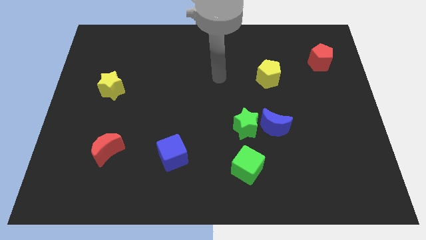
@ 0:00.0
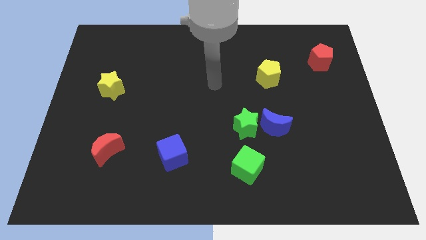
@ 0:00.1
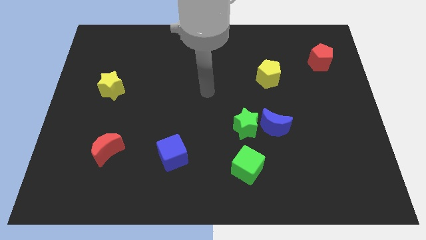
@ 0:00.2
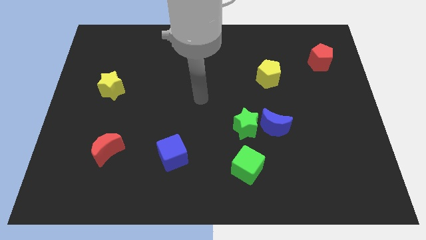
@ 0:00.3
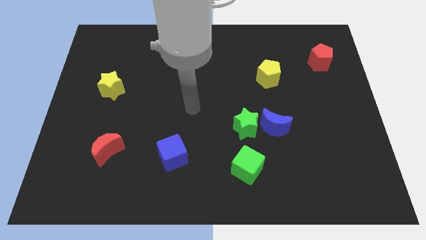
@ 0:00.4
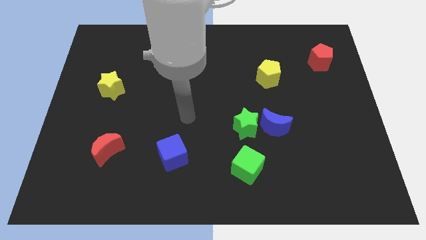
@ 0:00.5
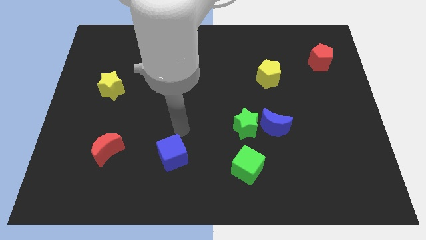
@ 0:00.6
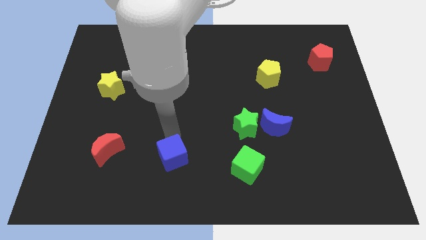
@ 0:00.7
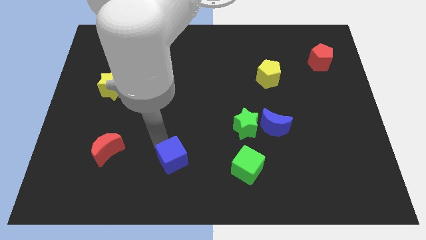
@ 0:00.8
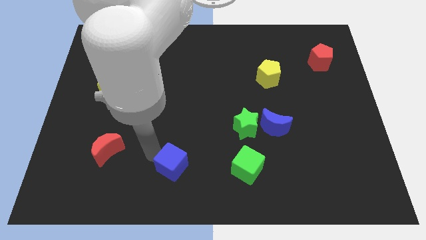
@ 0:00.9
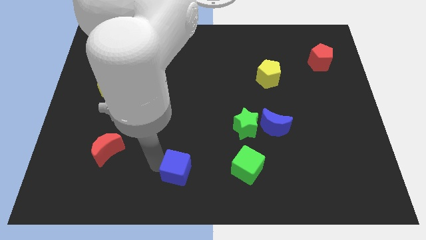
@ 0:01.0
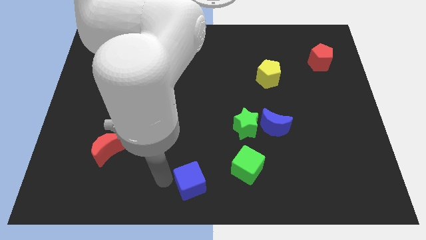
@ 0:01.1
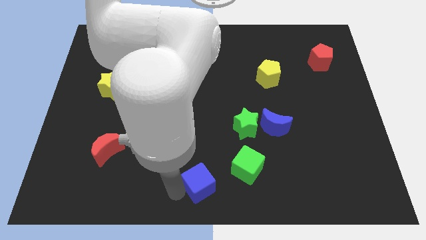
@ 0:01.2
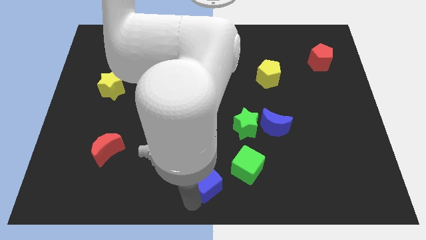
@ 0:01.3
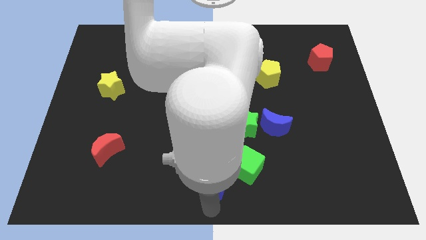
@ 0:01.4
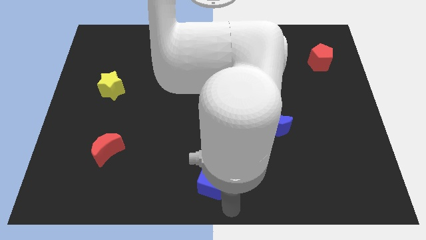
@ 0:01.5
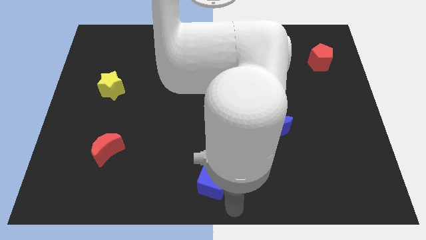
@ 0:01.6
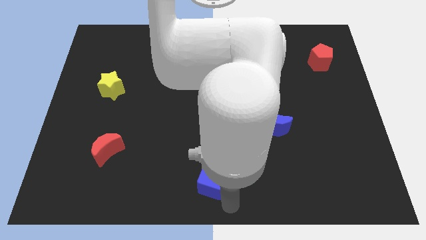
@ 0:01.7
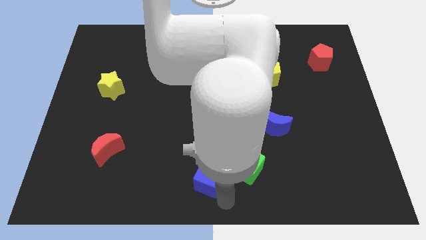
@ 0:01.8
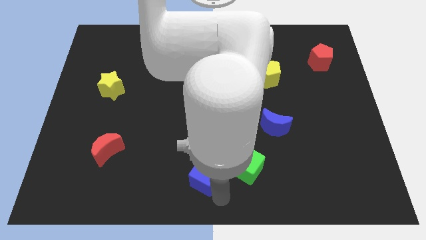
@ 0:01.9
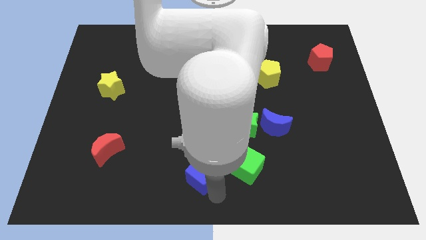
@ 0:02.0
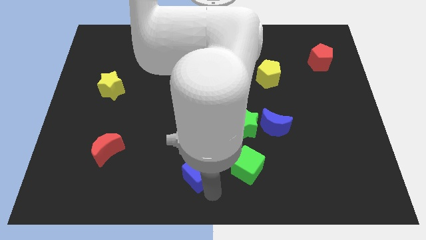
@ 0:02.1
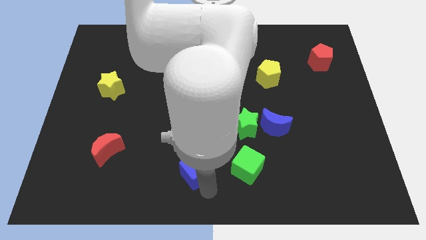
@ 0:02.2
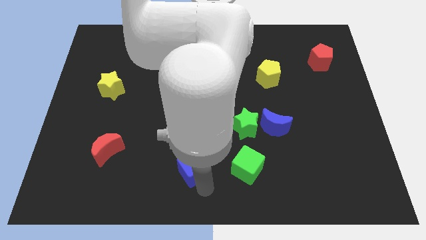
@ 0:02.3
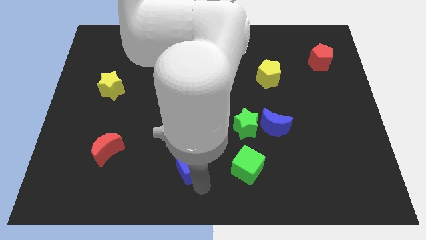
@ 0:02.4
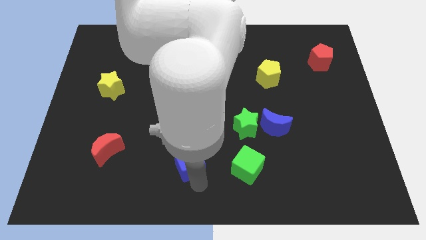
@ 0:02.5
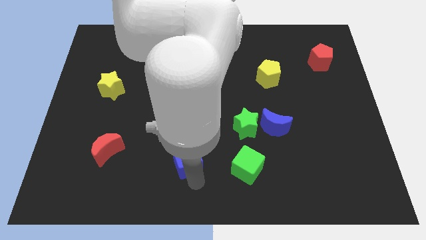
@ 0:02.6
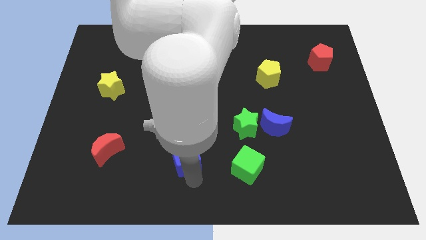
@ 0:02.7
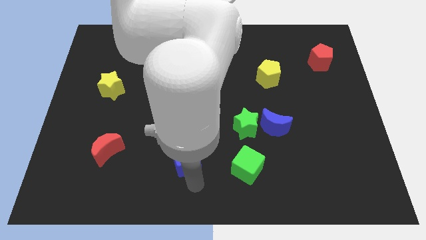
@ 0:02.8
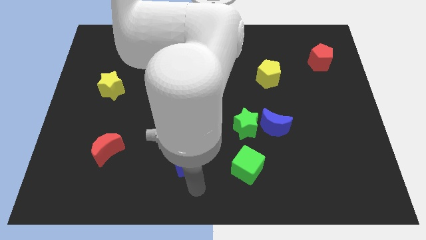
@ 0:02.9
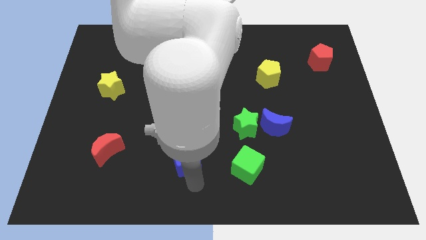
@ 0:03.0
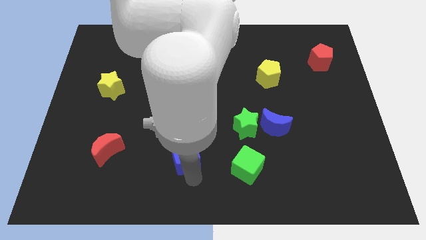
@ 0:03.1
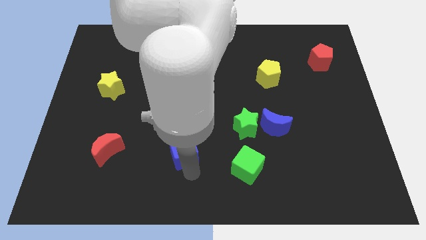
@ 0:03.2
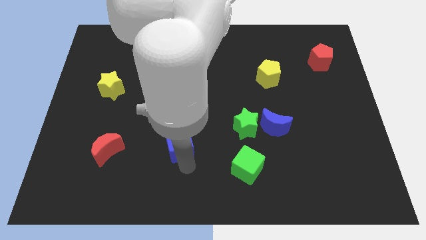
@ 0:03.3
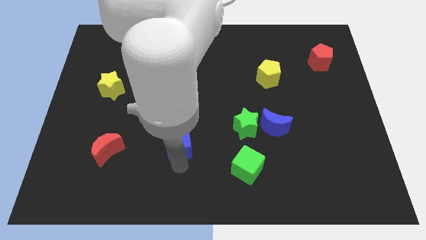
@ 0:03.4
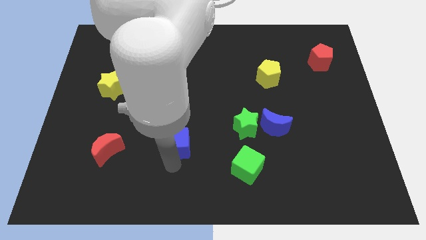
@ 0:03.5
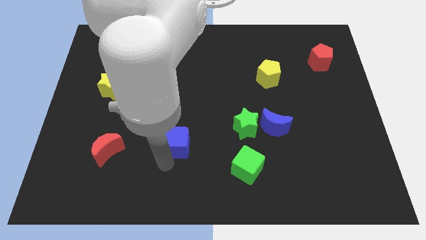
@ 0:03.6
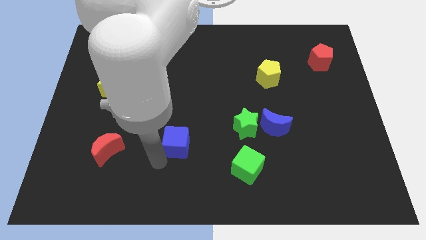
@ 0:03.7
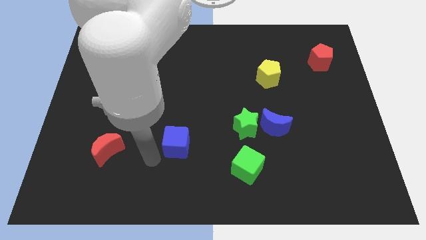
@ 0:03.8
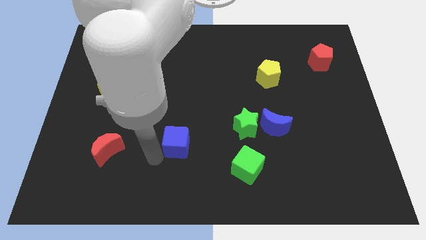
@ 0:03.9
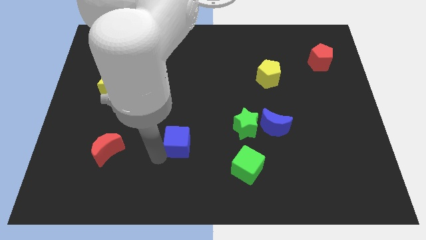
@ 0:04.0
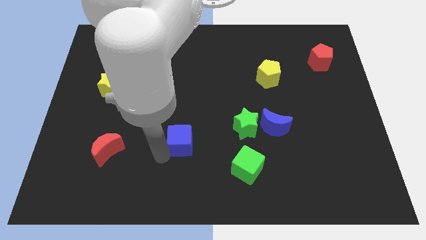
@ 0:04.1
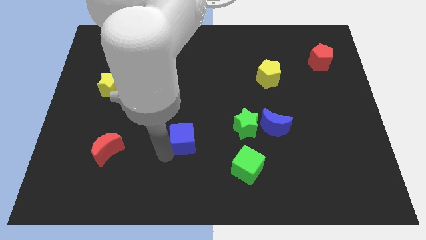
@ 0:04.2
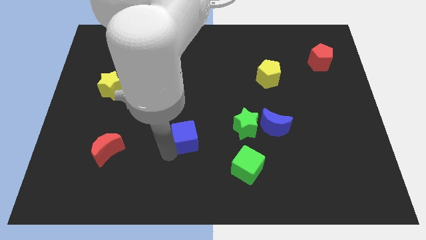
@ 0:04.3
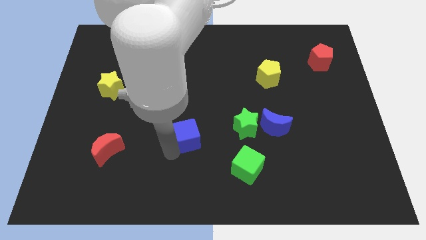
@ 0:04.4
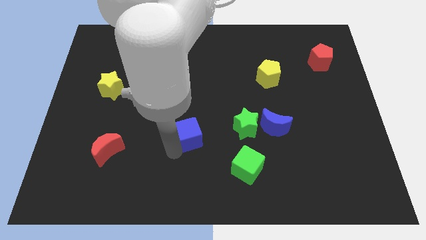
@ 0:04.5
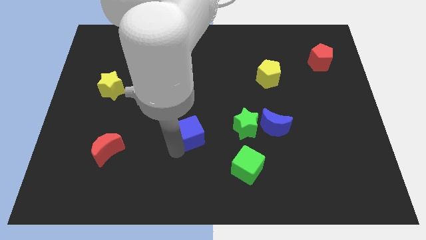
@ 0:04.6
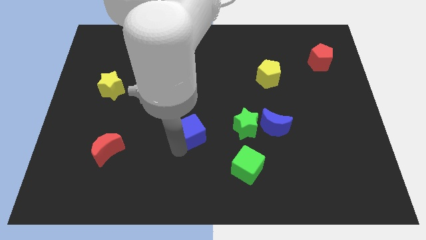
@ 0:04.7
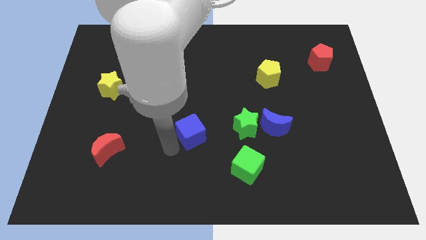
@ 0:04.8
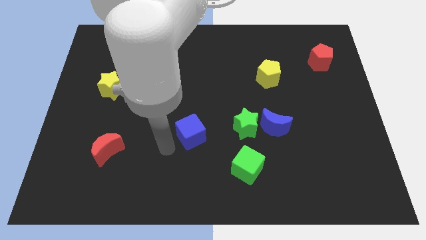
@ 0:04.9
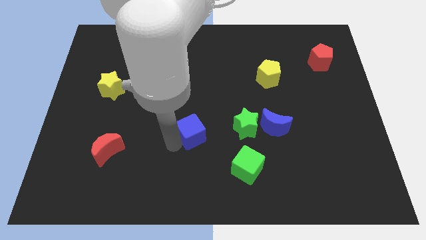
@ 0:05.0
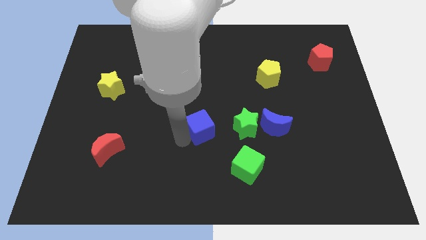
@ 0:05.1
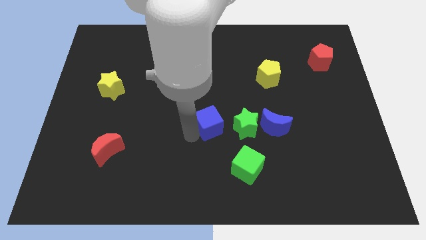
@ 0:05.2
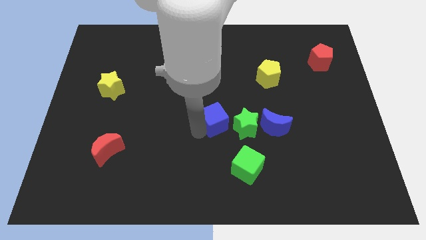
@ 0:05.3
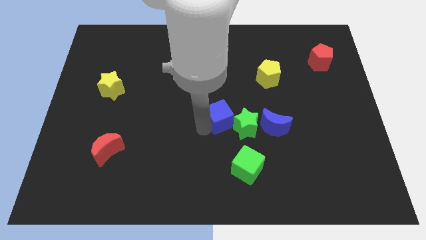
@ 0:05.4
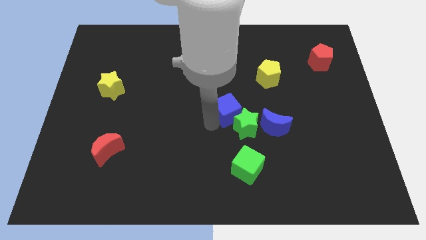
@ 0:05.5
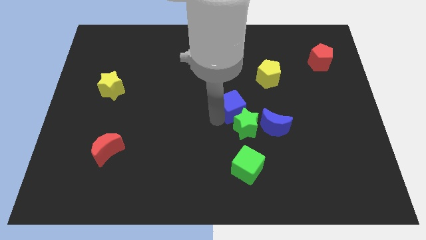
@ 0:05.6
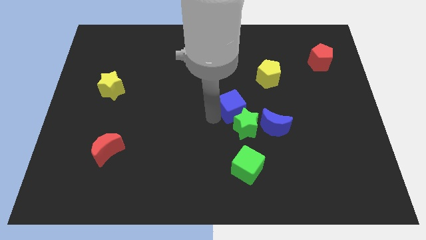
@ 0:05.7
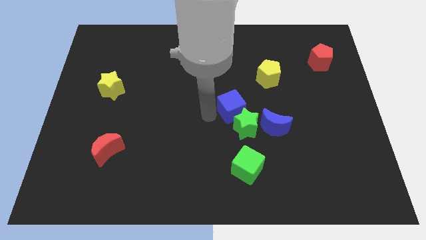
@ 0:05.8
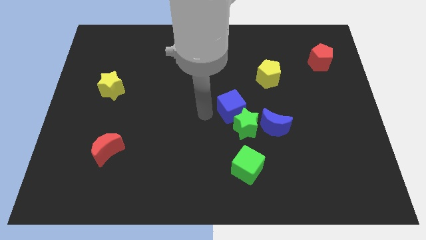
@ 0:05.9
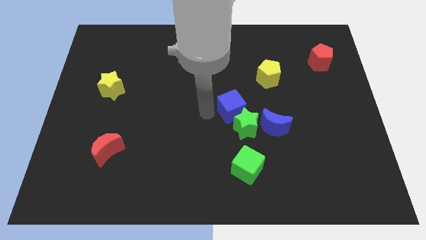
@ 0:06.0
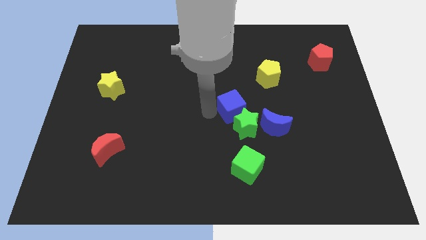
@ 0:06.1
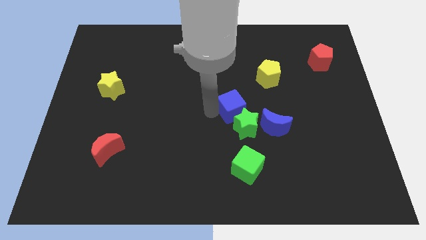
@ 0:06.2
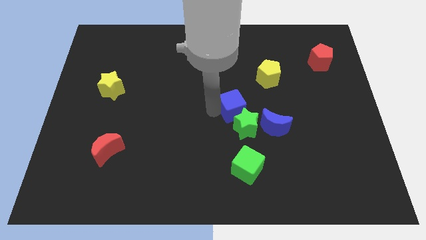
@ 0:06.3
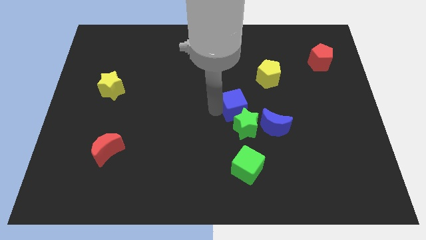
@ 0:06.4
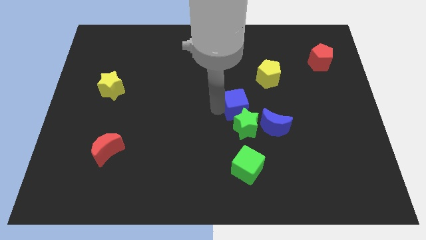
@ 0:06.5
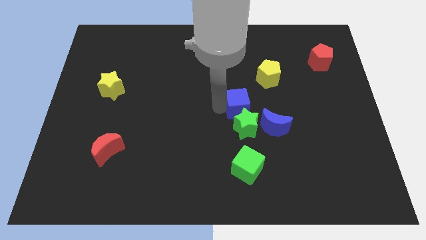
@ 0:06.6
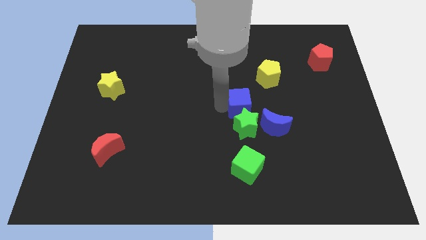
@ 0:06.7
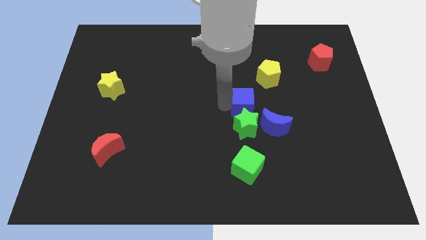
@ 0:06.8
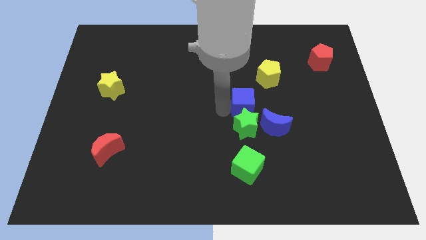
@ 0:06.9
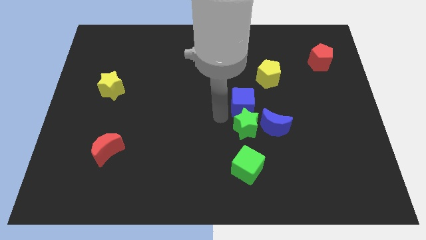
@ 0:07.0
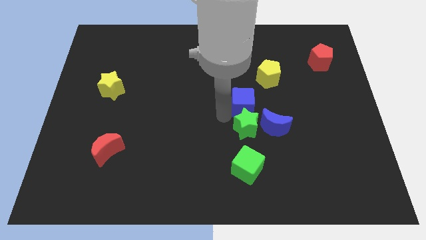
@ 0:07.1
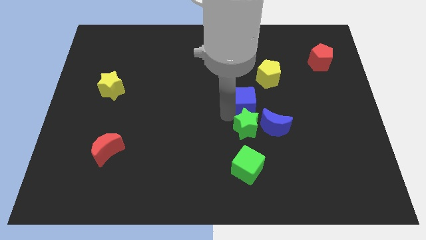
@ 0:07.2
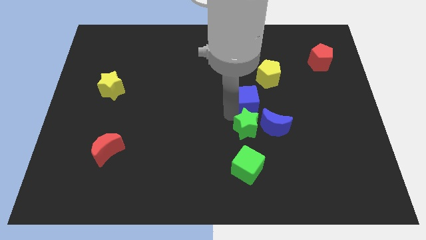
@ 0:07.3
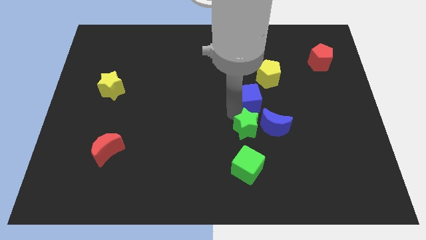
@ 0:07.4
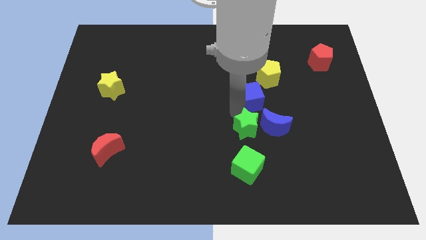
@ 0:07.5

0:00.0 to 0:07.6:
put the blue cube to the top side of the blue moon
